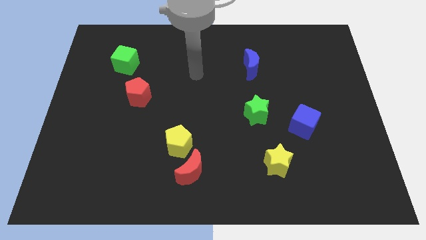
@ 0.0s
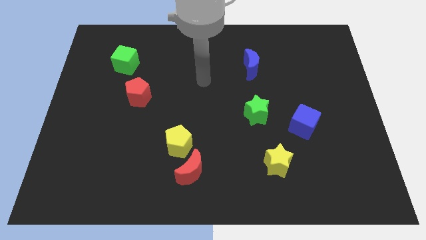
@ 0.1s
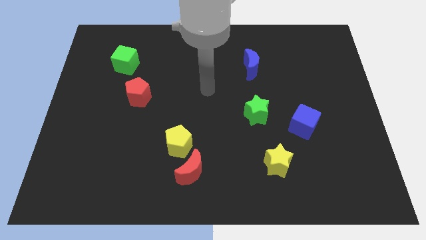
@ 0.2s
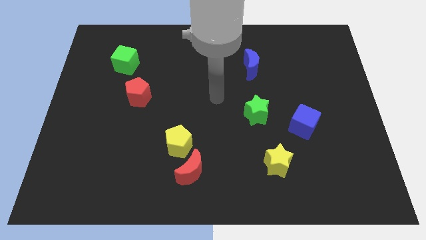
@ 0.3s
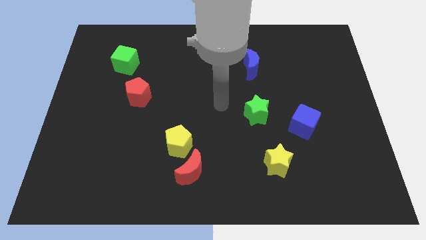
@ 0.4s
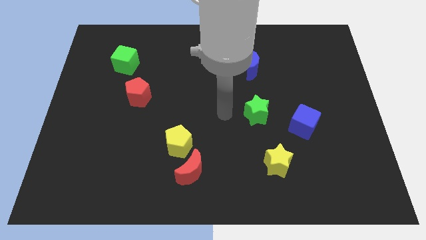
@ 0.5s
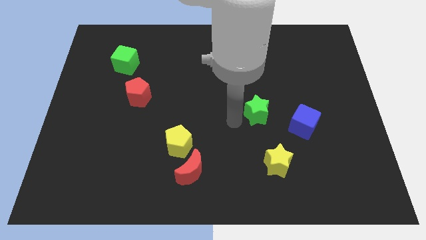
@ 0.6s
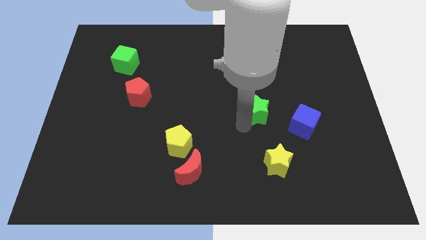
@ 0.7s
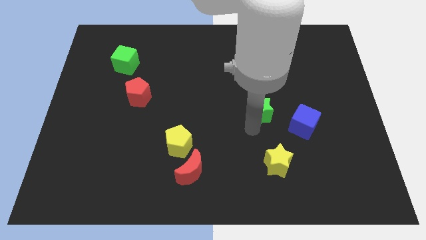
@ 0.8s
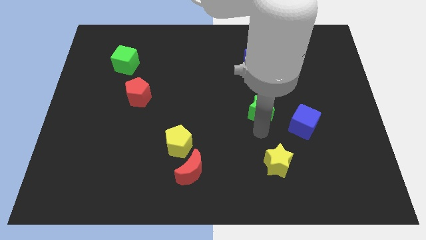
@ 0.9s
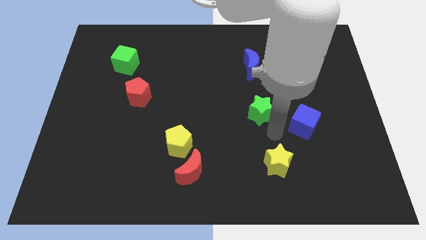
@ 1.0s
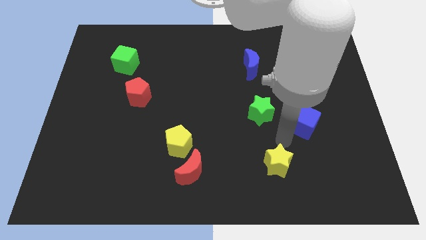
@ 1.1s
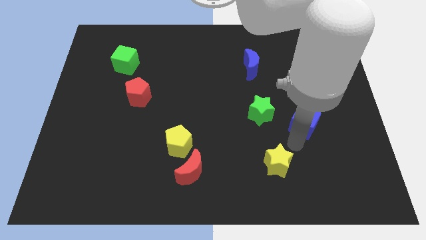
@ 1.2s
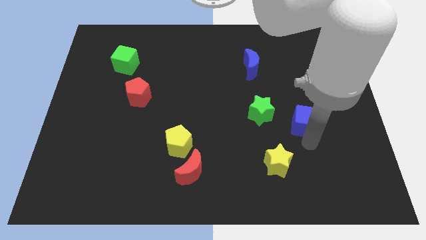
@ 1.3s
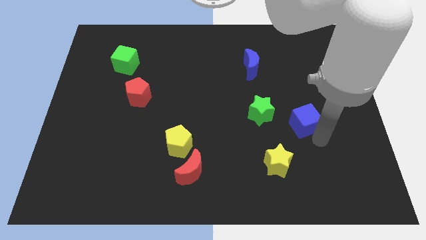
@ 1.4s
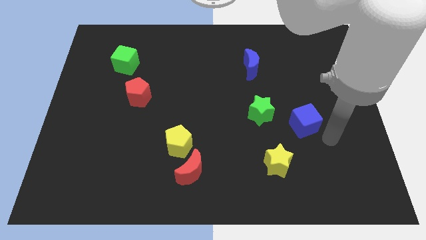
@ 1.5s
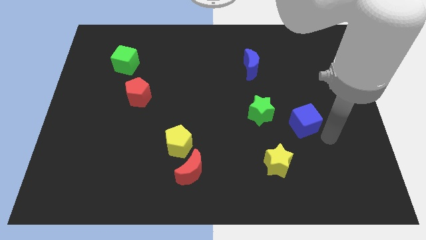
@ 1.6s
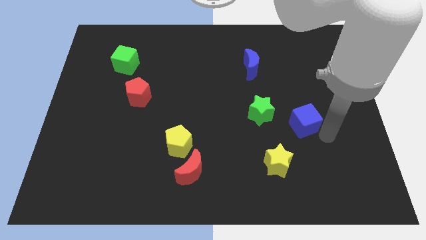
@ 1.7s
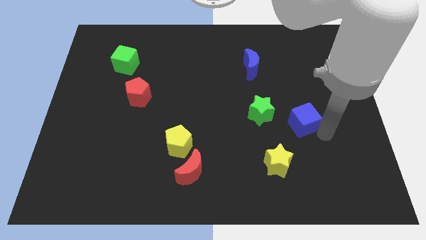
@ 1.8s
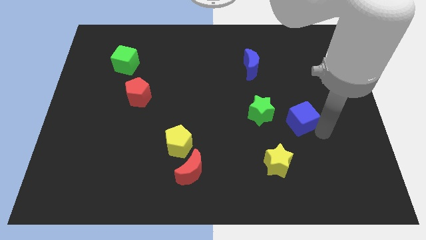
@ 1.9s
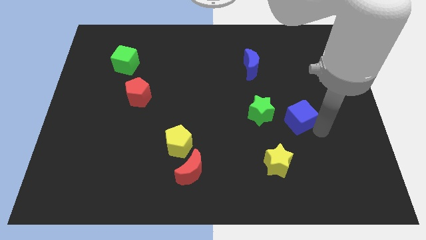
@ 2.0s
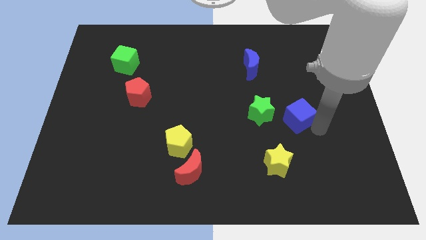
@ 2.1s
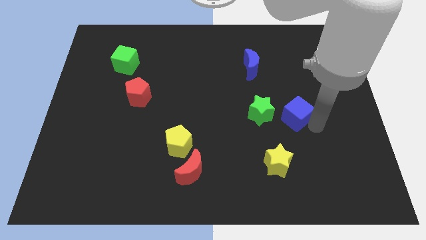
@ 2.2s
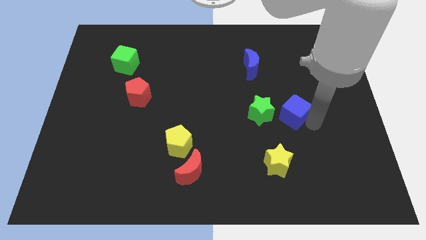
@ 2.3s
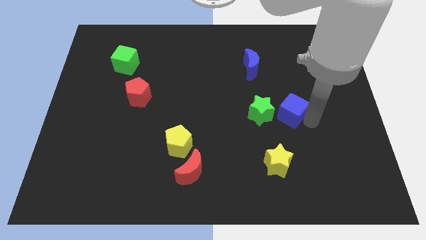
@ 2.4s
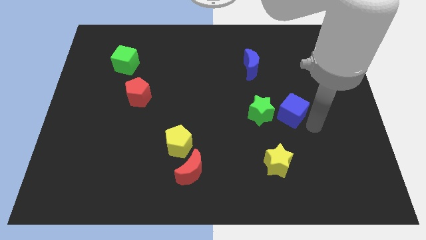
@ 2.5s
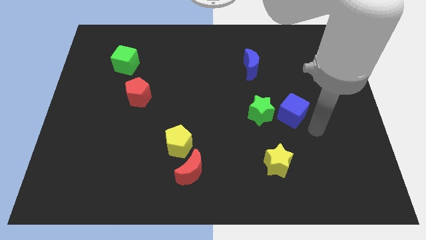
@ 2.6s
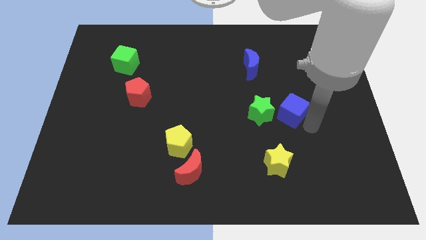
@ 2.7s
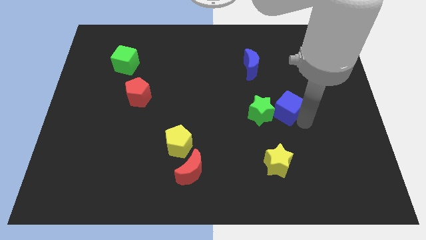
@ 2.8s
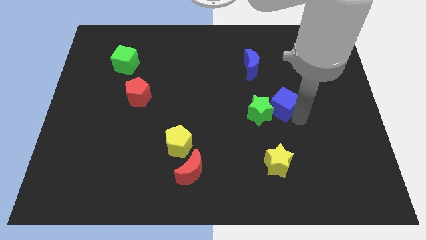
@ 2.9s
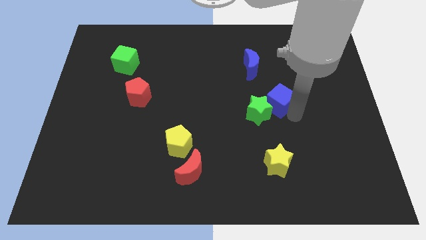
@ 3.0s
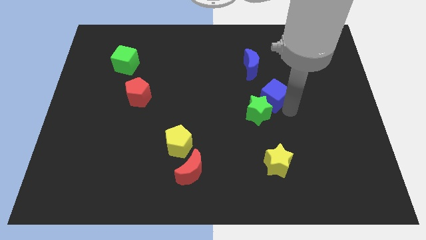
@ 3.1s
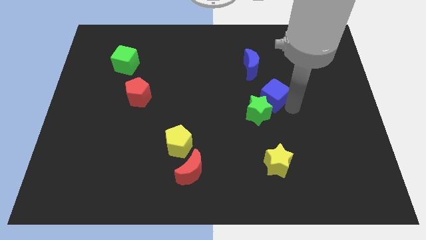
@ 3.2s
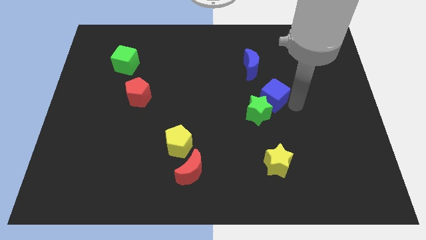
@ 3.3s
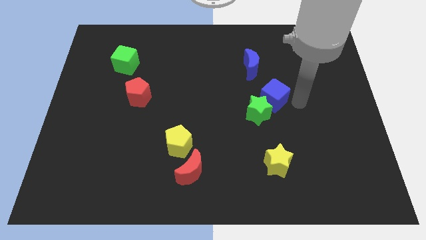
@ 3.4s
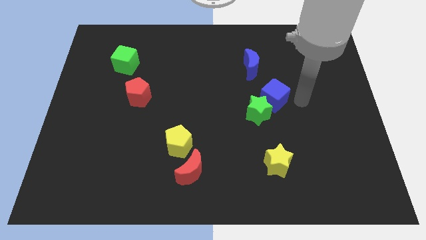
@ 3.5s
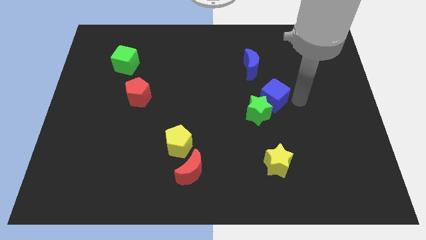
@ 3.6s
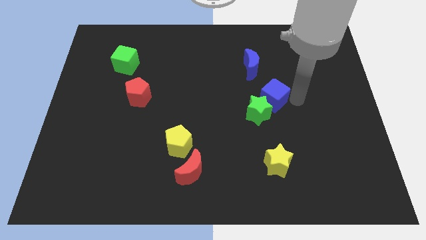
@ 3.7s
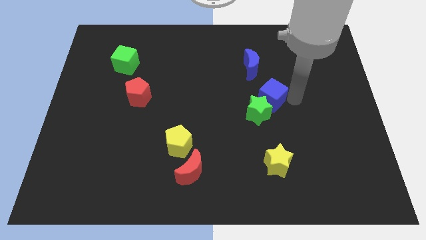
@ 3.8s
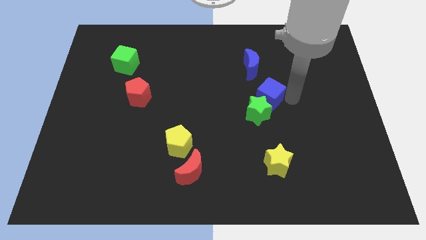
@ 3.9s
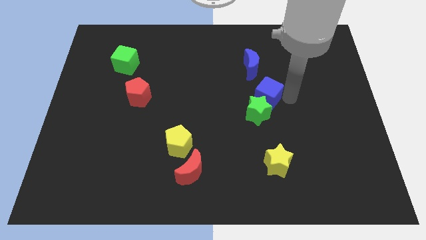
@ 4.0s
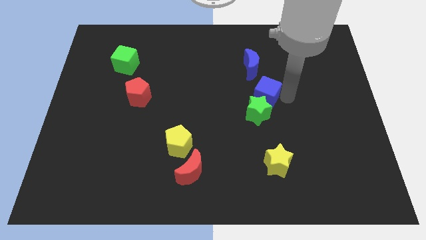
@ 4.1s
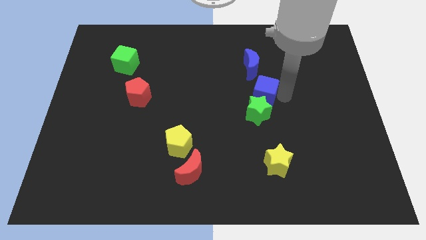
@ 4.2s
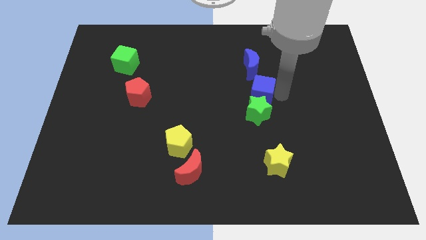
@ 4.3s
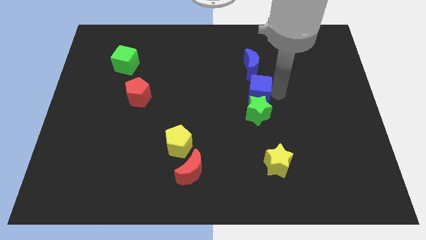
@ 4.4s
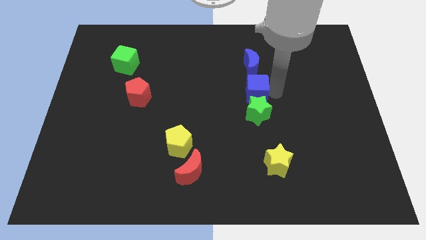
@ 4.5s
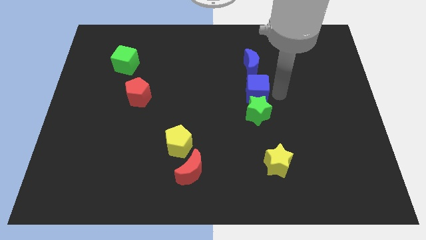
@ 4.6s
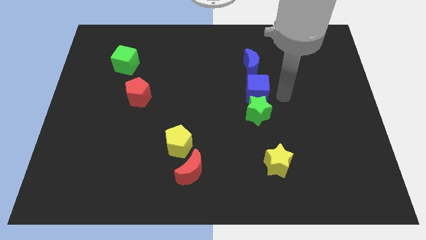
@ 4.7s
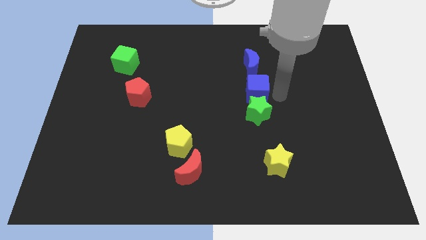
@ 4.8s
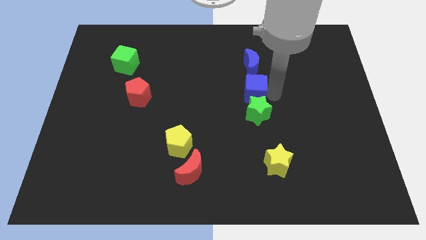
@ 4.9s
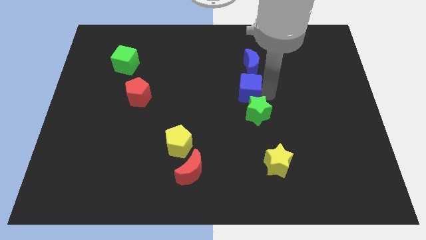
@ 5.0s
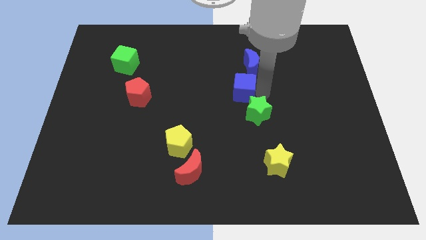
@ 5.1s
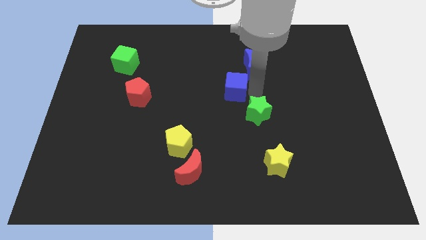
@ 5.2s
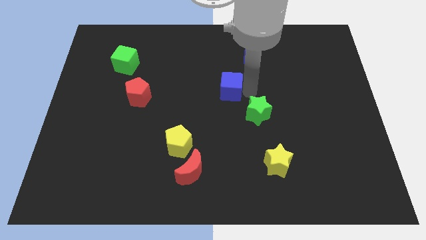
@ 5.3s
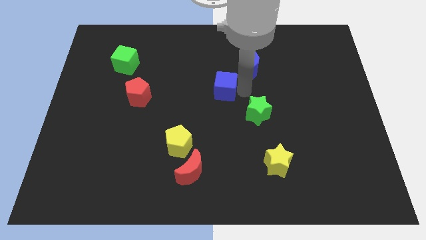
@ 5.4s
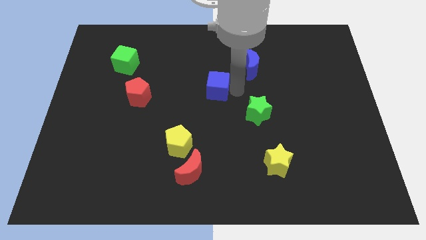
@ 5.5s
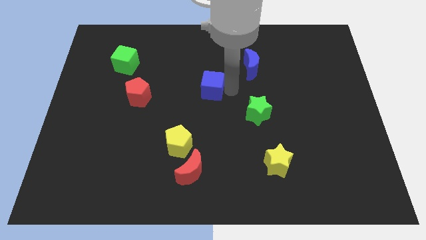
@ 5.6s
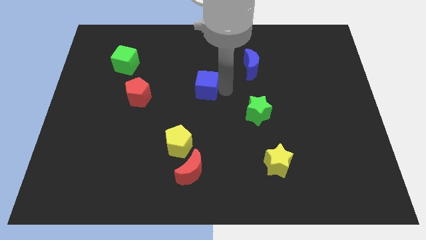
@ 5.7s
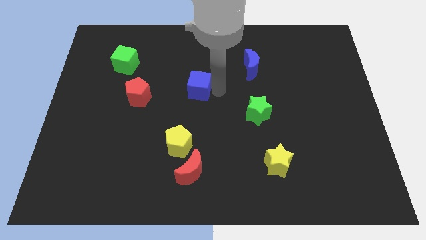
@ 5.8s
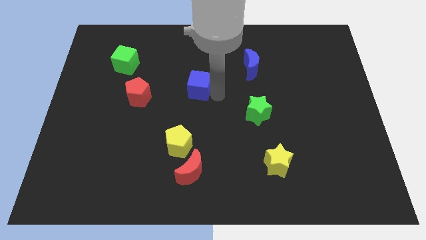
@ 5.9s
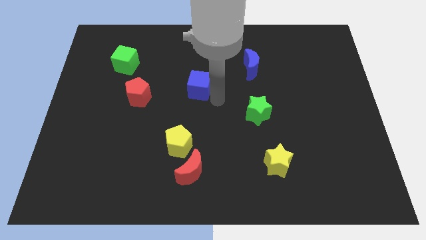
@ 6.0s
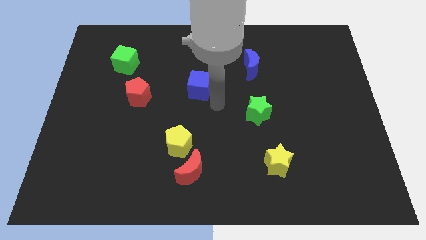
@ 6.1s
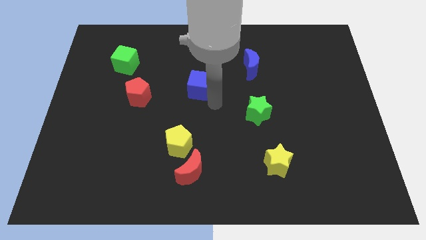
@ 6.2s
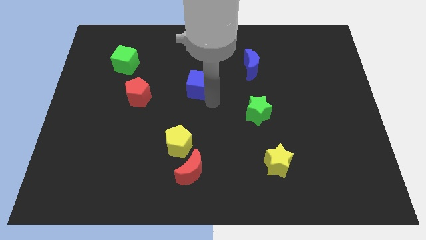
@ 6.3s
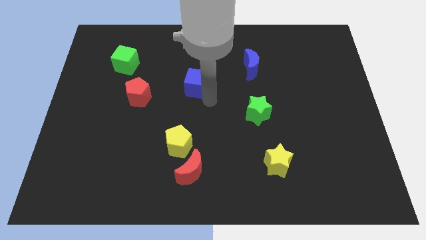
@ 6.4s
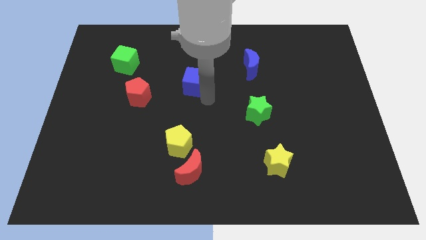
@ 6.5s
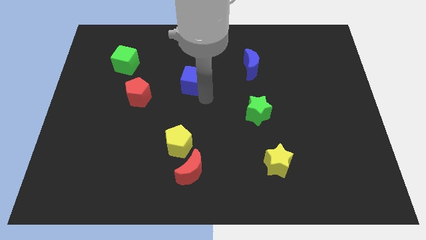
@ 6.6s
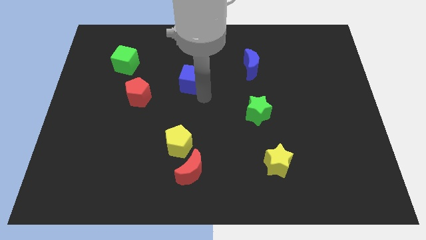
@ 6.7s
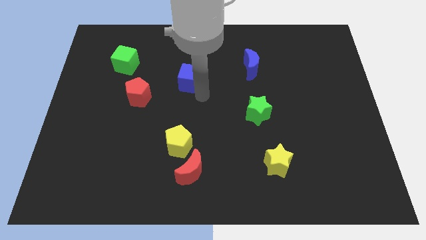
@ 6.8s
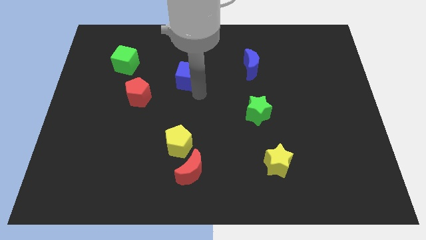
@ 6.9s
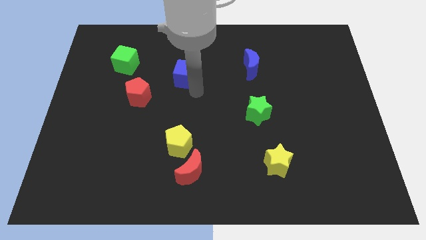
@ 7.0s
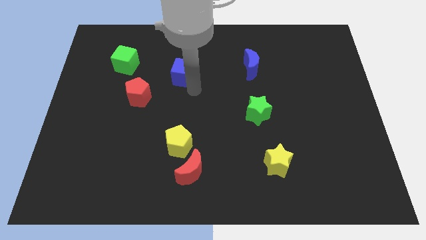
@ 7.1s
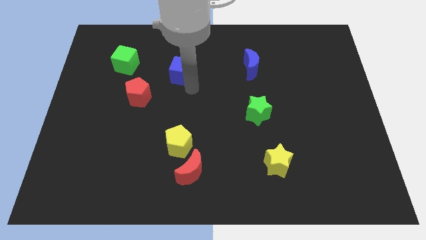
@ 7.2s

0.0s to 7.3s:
move the blue cube to the right side of the green cube
